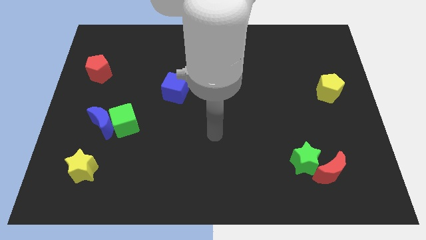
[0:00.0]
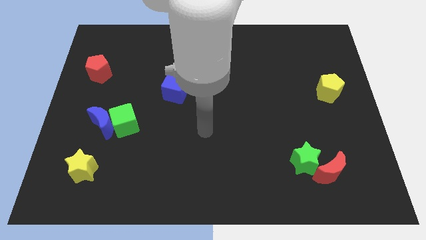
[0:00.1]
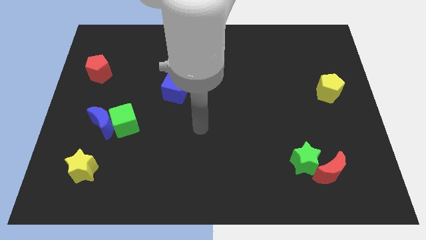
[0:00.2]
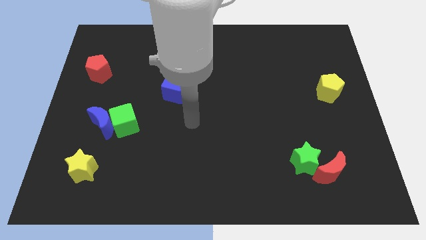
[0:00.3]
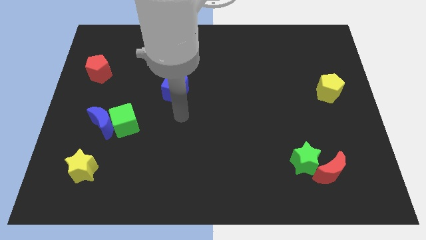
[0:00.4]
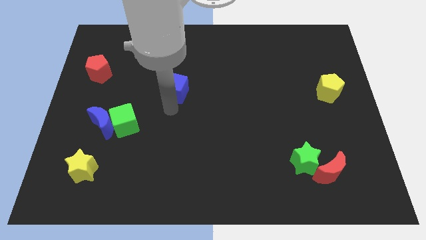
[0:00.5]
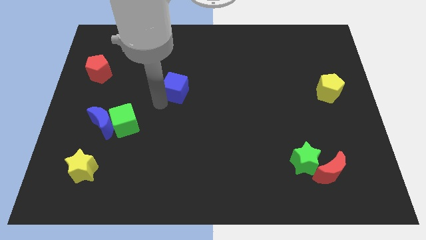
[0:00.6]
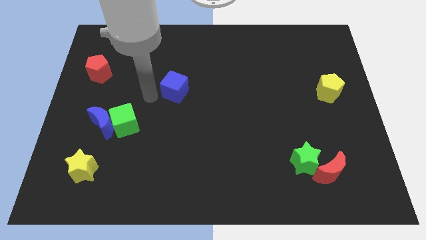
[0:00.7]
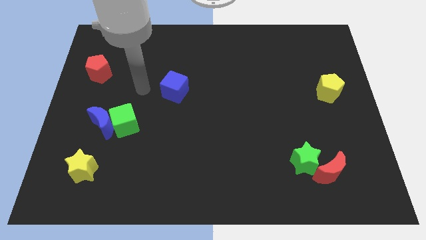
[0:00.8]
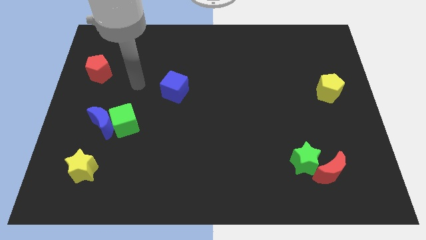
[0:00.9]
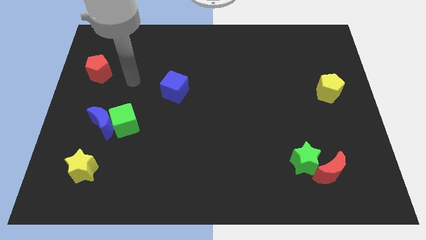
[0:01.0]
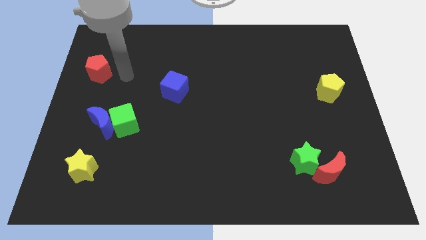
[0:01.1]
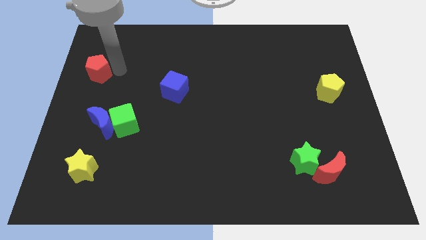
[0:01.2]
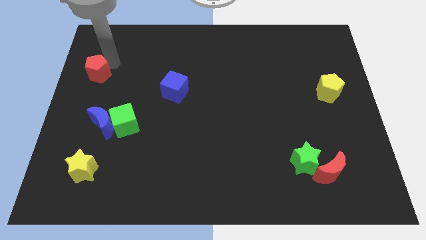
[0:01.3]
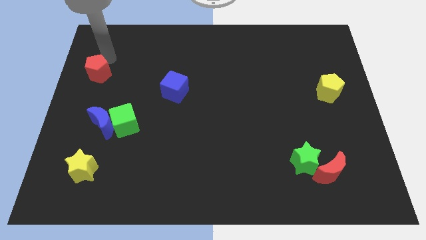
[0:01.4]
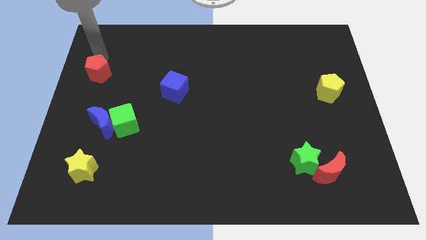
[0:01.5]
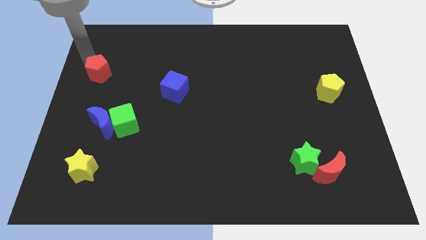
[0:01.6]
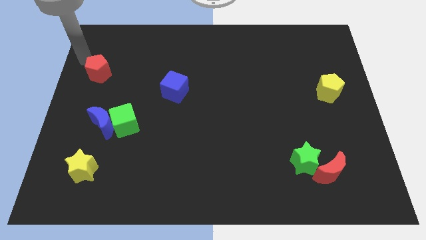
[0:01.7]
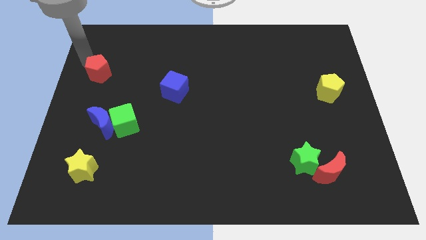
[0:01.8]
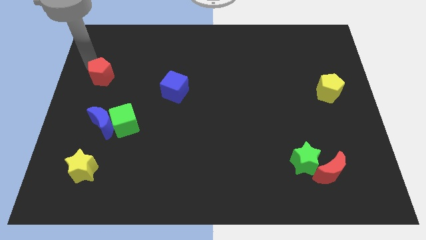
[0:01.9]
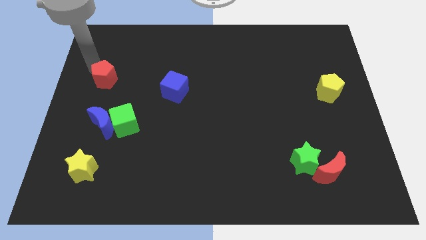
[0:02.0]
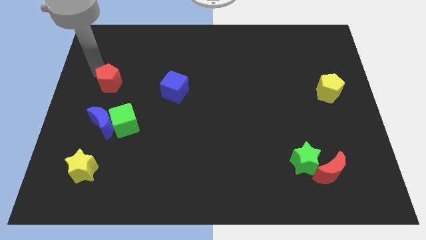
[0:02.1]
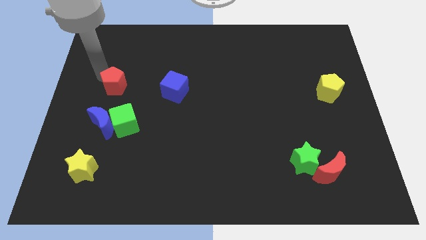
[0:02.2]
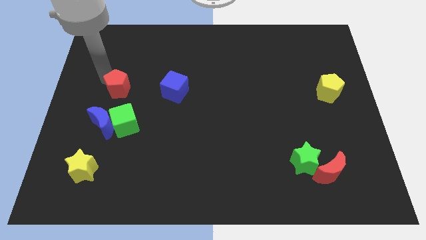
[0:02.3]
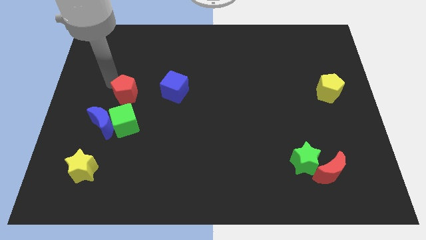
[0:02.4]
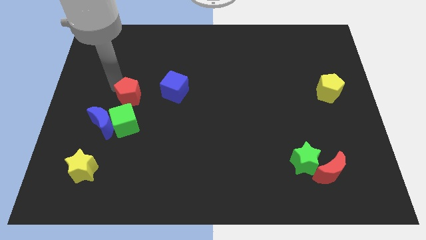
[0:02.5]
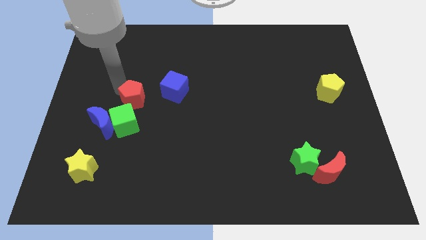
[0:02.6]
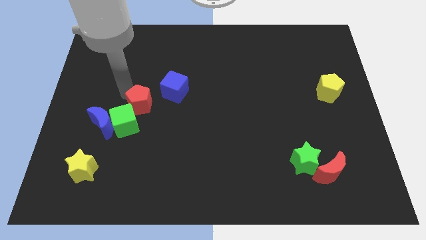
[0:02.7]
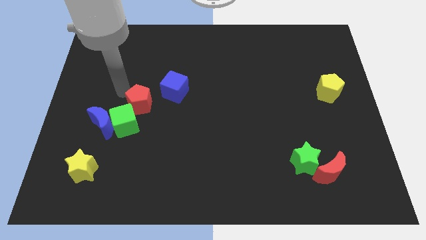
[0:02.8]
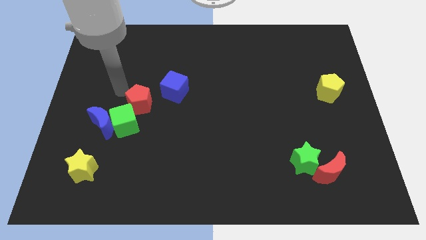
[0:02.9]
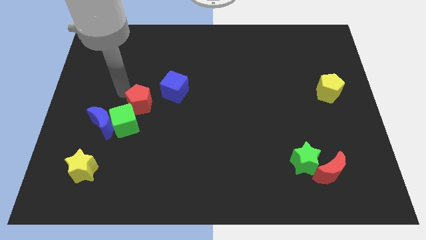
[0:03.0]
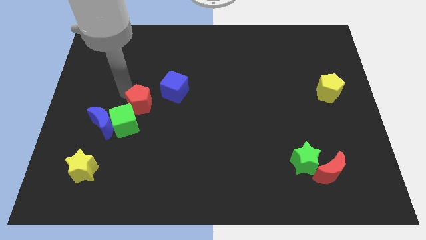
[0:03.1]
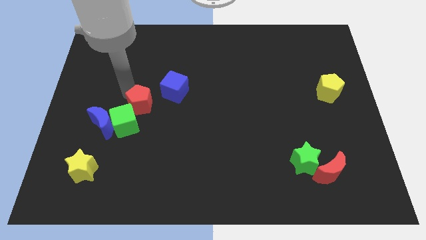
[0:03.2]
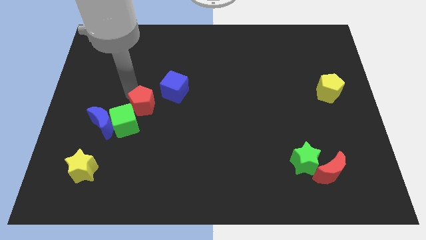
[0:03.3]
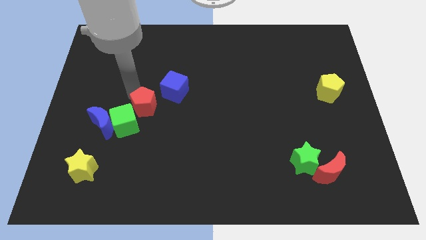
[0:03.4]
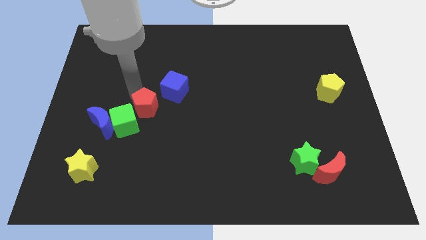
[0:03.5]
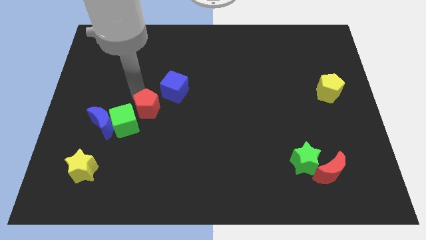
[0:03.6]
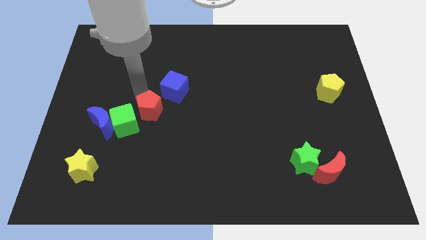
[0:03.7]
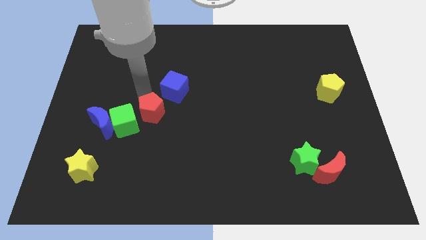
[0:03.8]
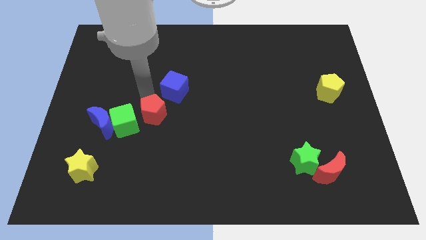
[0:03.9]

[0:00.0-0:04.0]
push the red pentagon downwards and then to the right

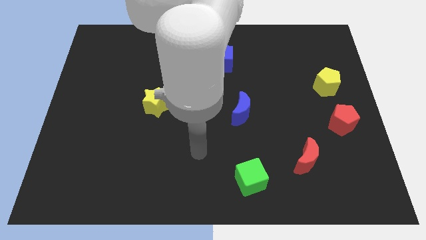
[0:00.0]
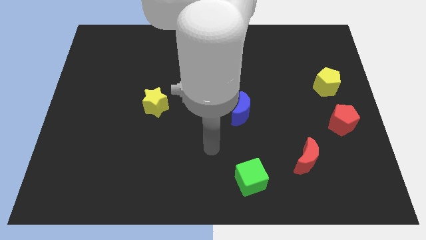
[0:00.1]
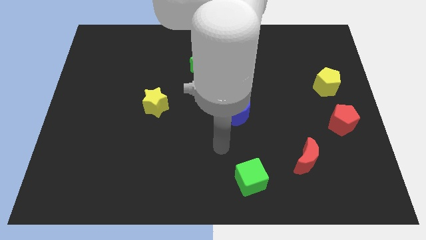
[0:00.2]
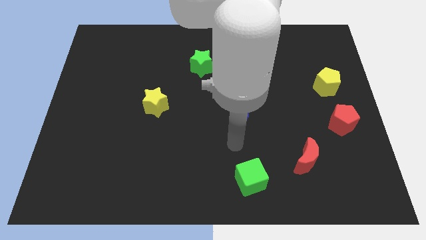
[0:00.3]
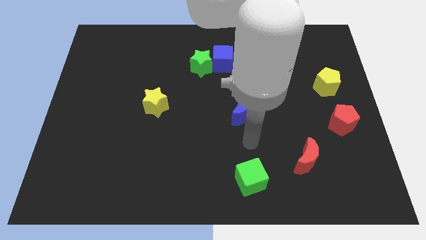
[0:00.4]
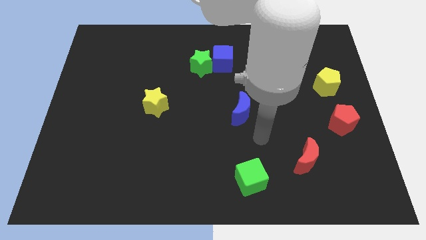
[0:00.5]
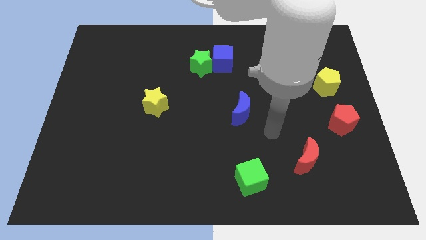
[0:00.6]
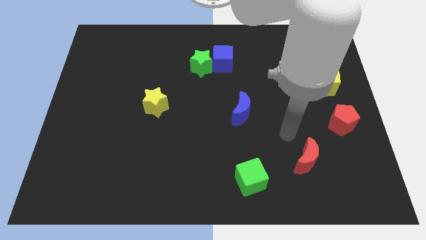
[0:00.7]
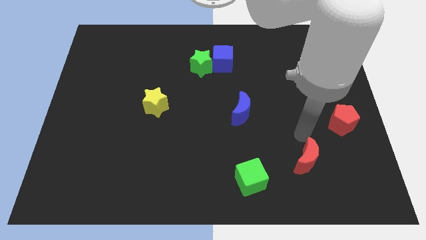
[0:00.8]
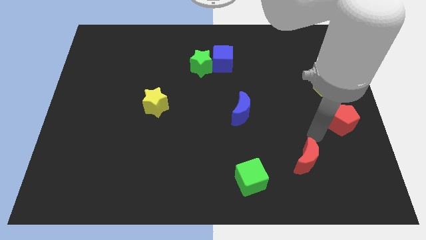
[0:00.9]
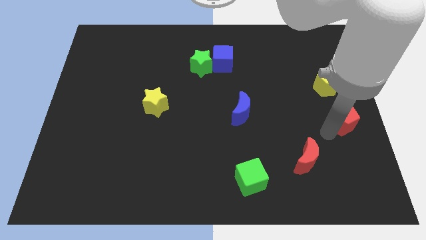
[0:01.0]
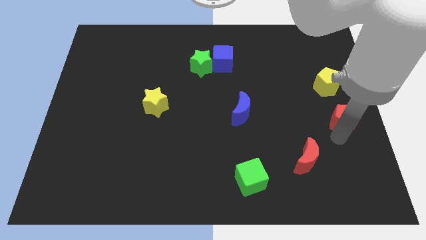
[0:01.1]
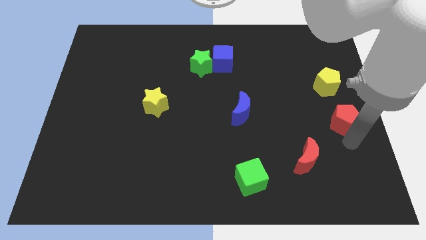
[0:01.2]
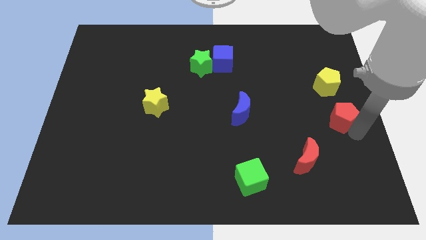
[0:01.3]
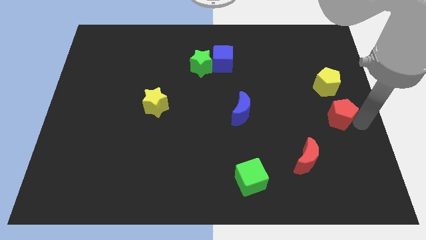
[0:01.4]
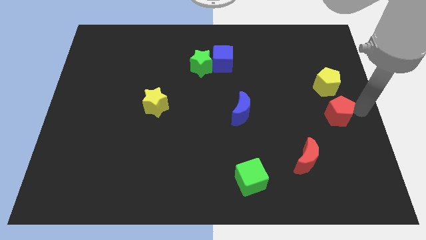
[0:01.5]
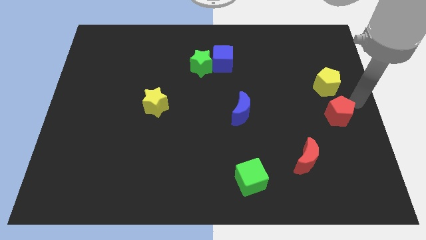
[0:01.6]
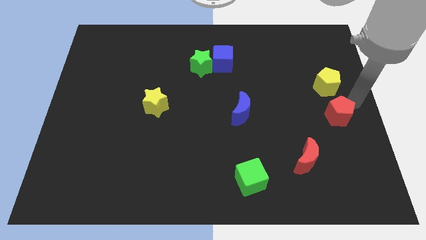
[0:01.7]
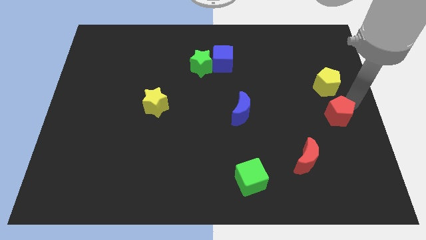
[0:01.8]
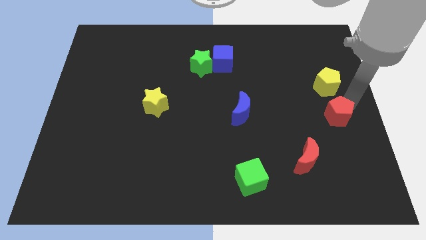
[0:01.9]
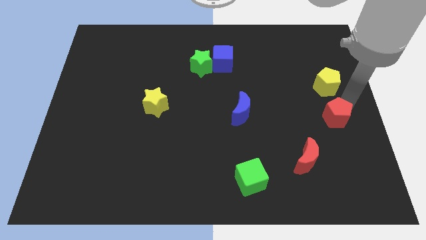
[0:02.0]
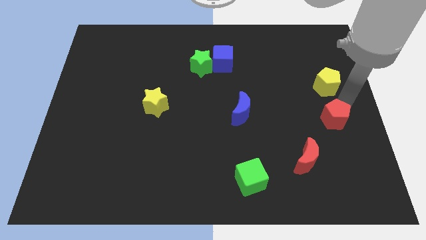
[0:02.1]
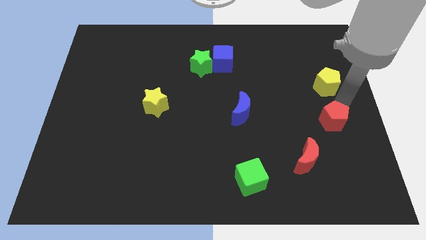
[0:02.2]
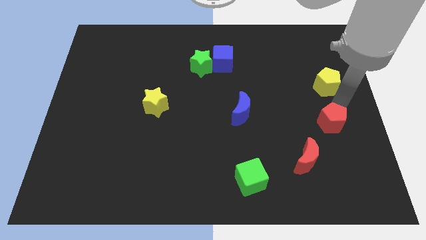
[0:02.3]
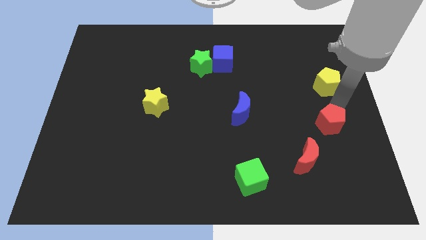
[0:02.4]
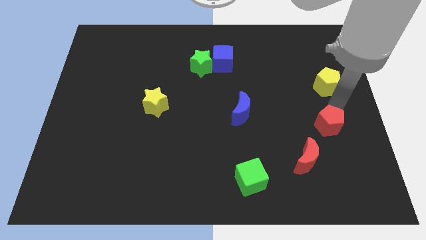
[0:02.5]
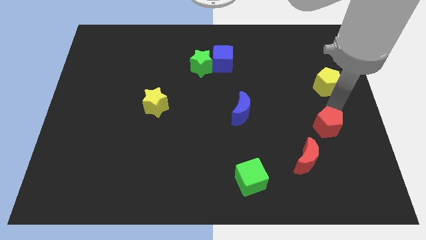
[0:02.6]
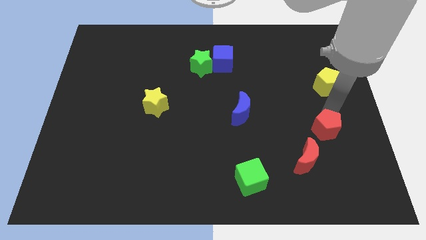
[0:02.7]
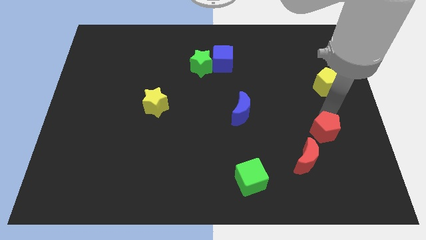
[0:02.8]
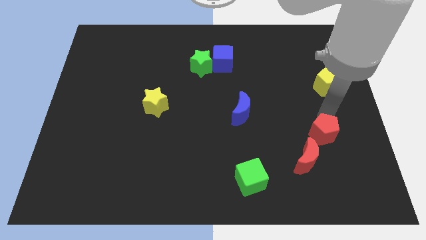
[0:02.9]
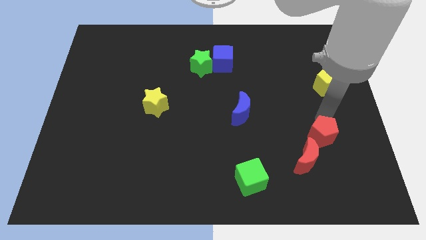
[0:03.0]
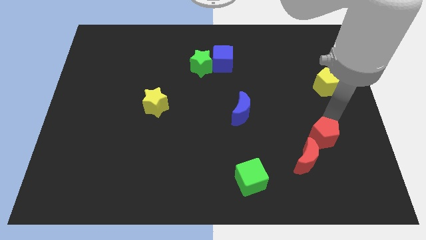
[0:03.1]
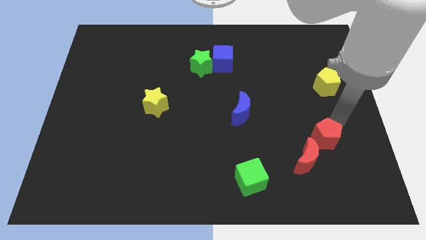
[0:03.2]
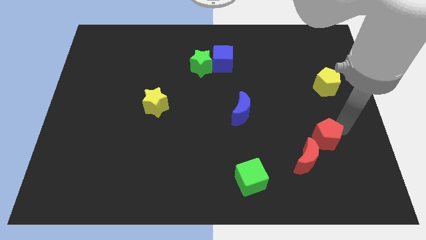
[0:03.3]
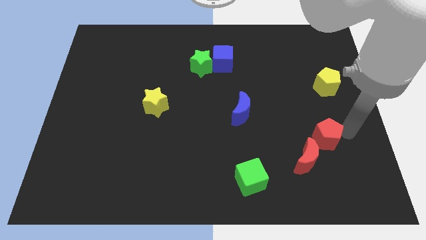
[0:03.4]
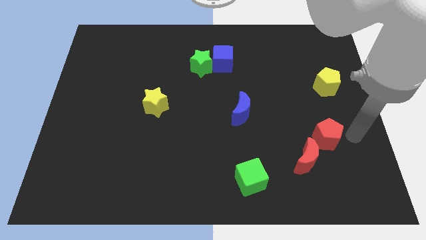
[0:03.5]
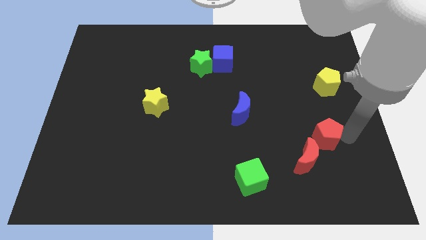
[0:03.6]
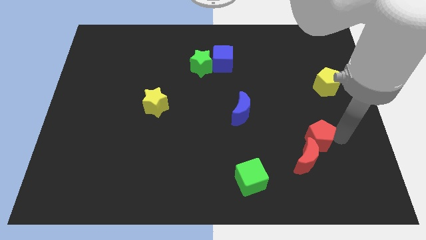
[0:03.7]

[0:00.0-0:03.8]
slightly slide the red pentagon diagonally down and to the left
